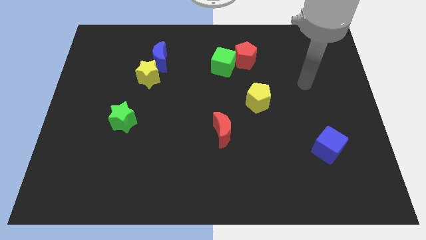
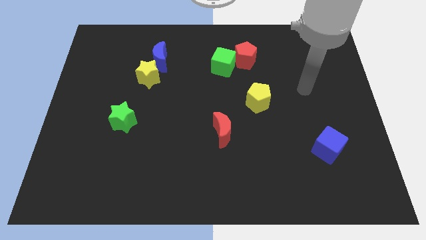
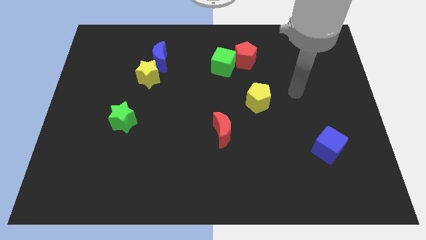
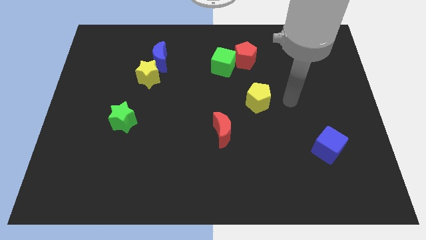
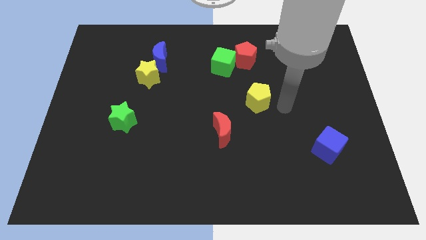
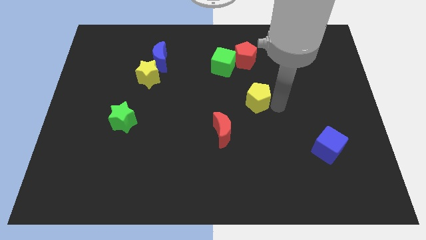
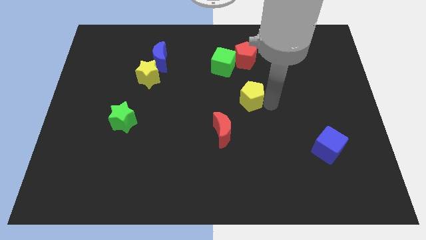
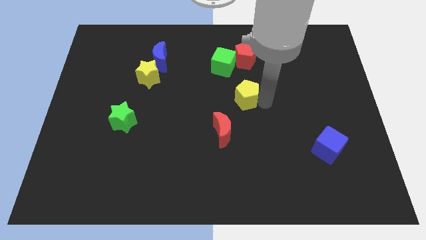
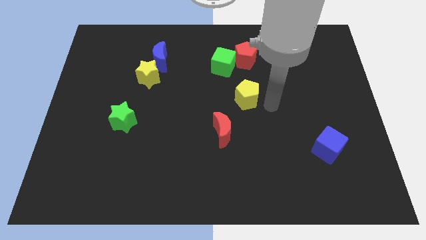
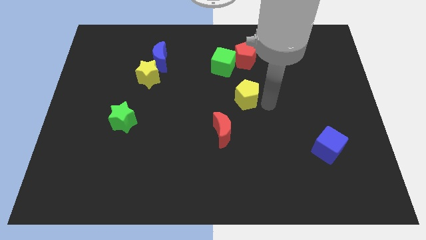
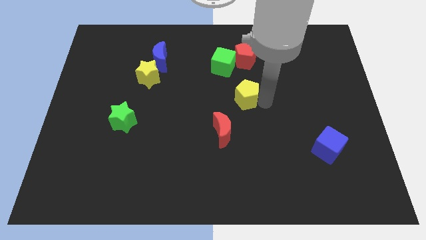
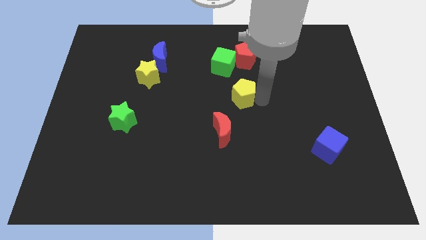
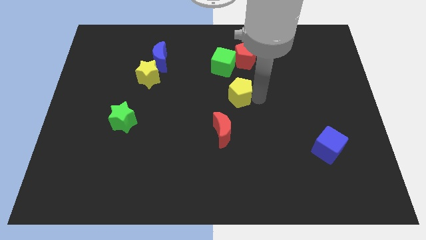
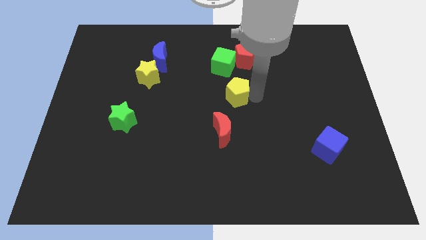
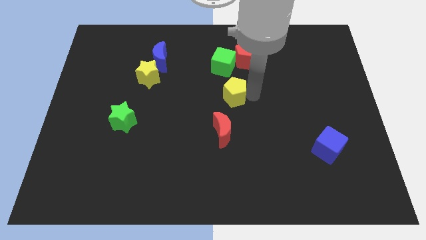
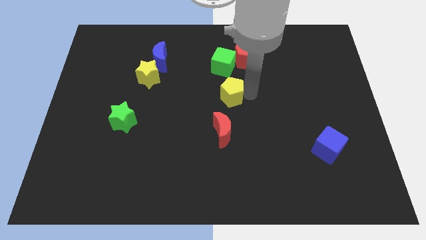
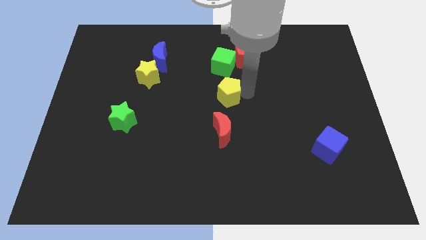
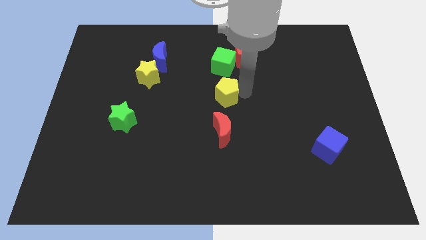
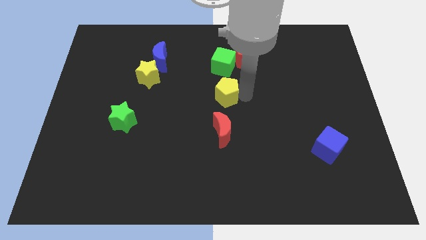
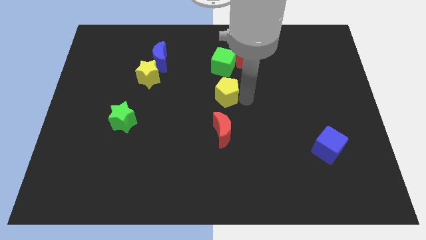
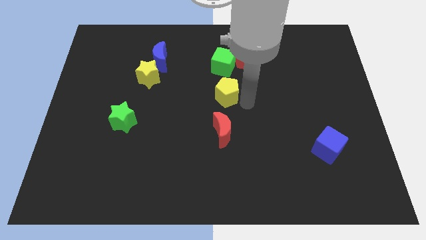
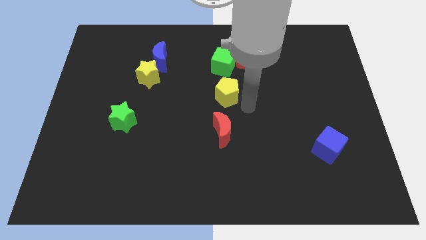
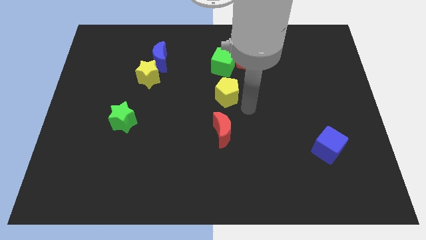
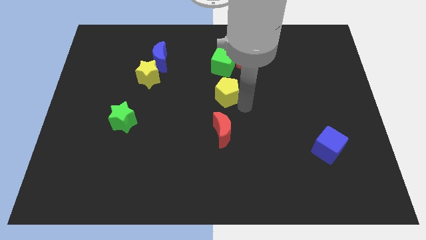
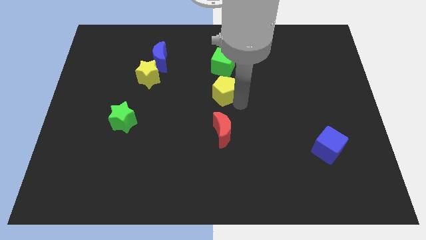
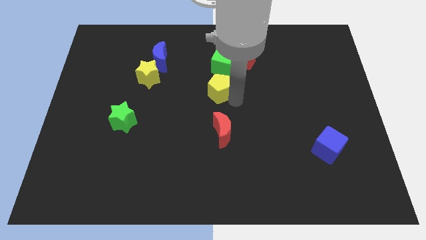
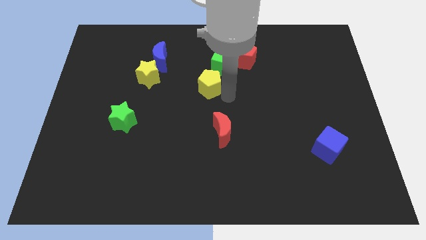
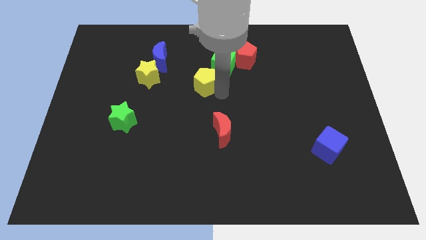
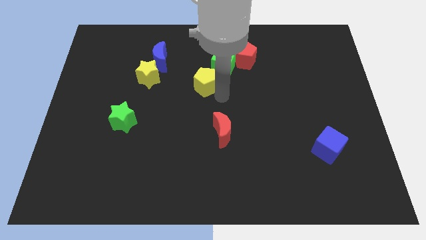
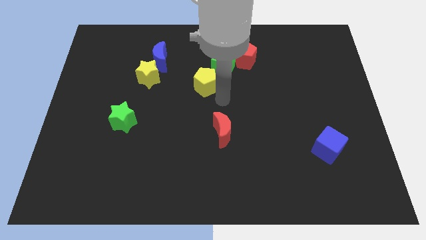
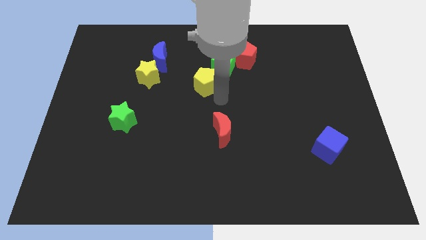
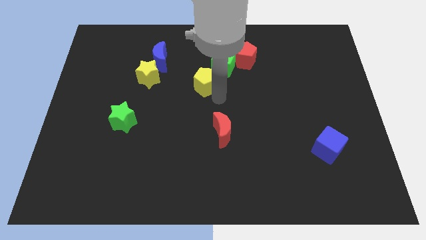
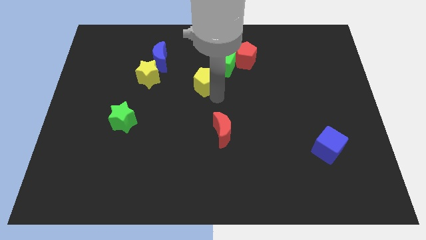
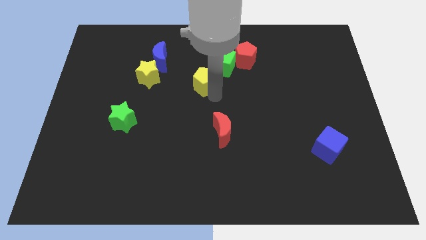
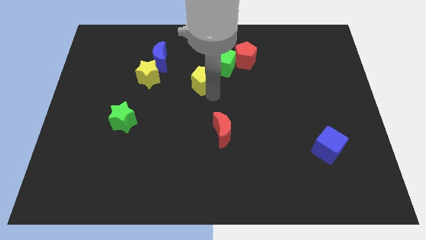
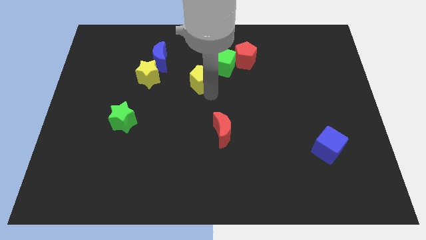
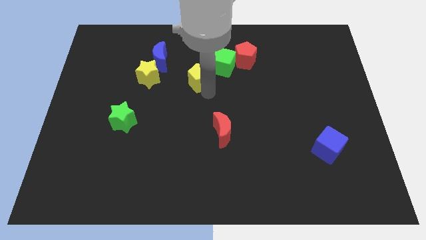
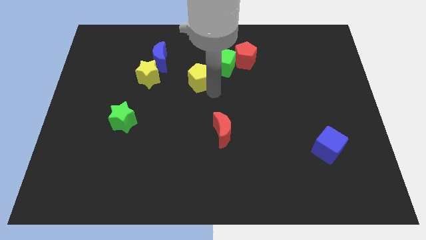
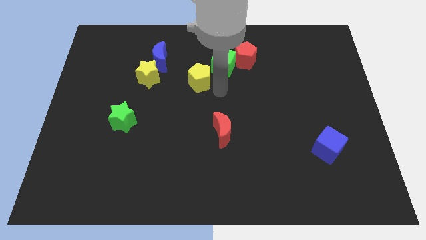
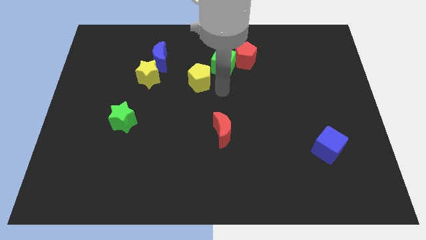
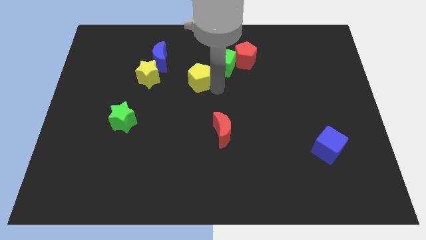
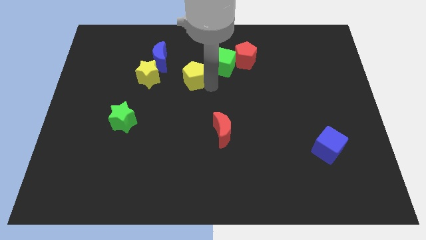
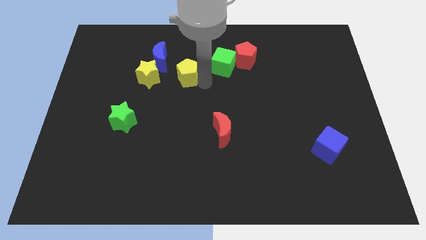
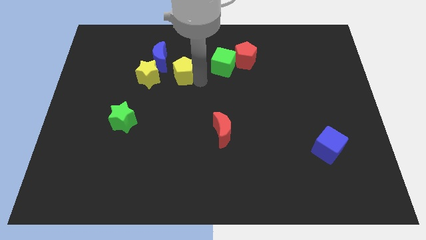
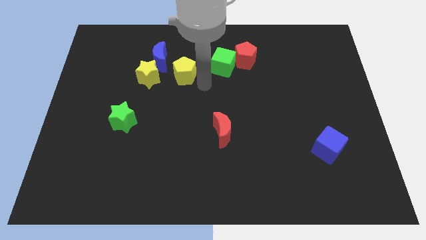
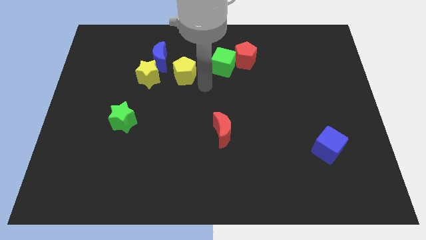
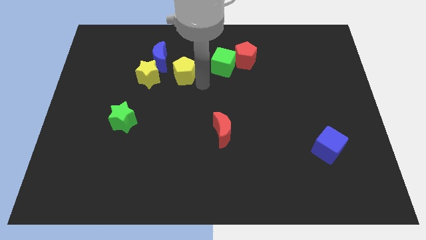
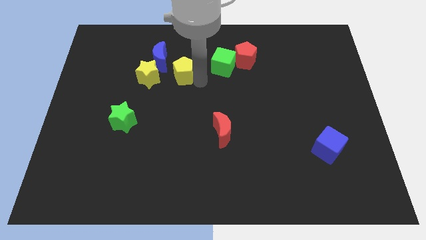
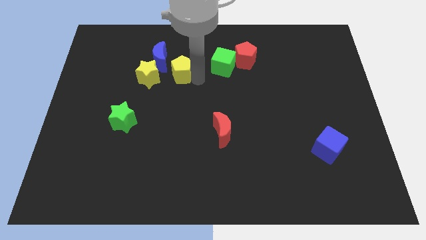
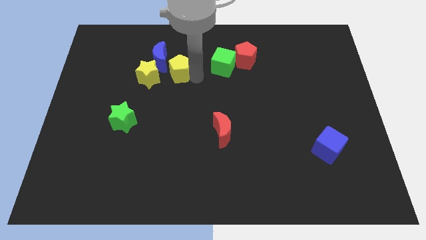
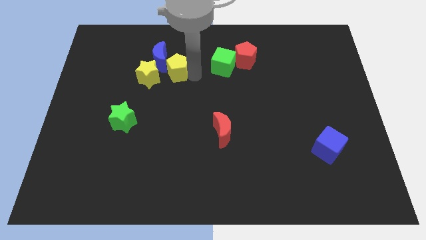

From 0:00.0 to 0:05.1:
push the yellow pentagon close to the blue moon

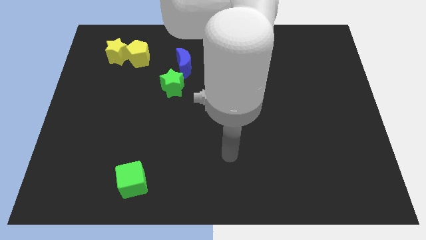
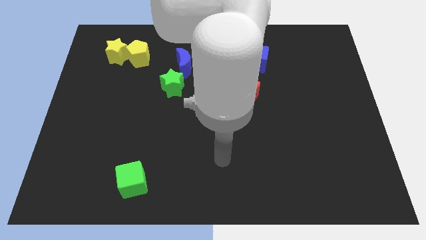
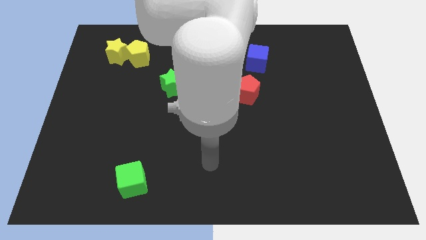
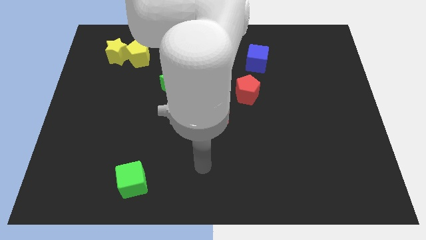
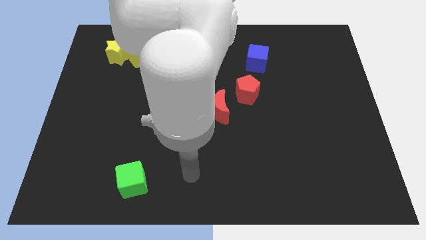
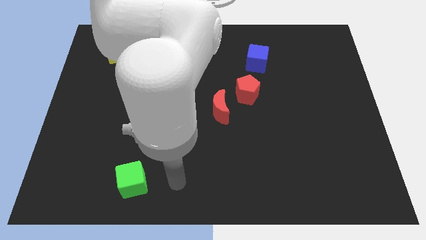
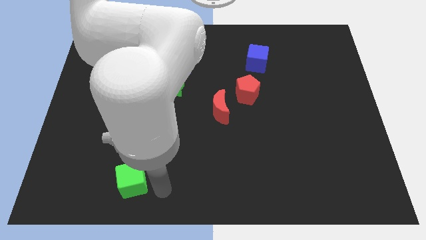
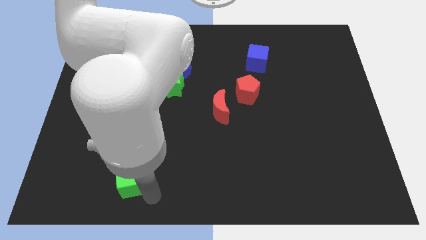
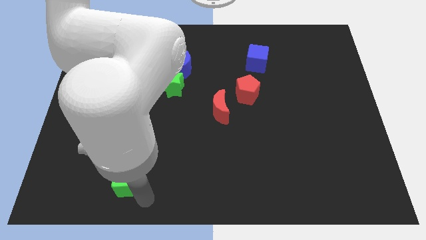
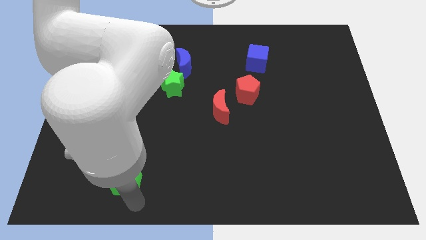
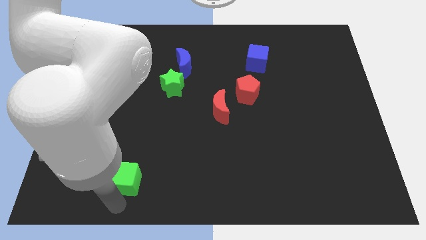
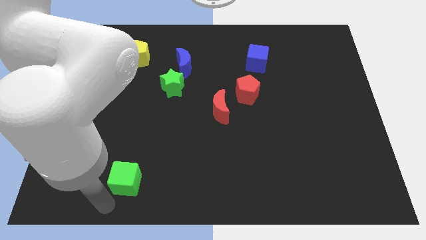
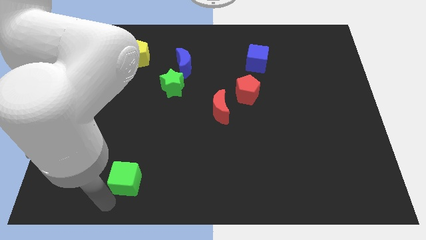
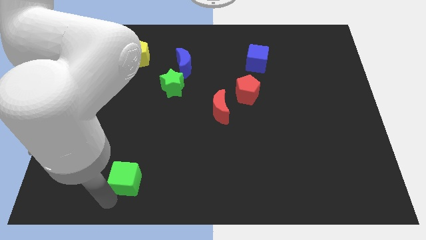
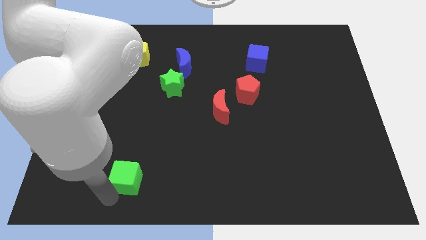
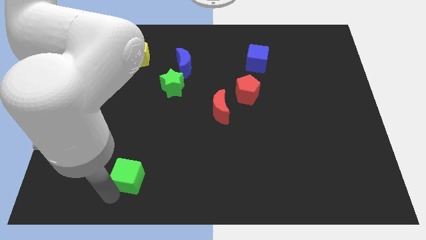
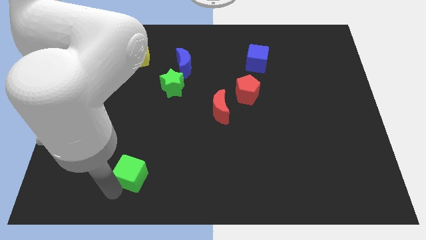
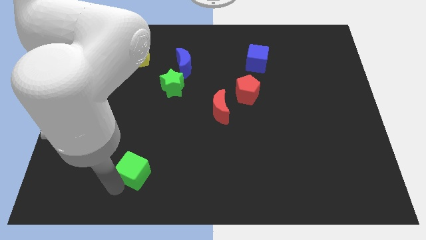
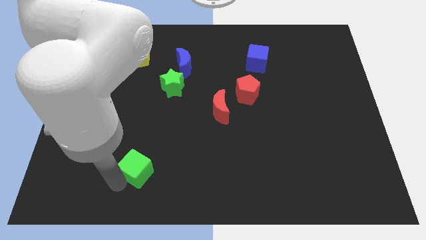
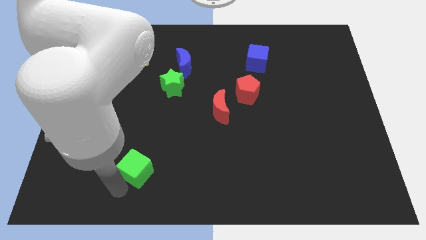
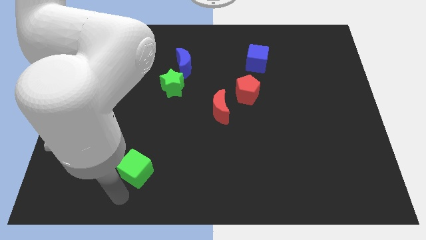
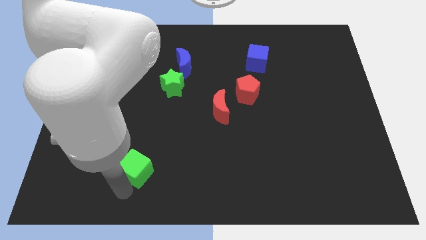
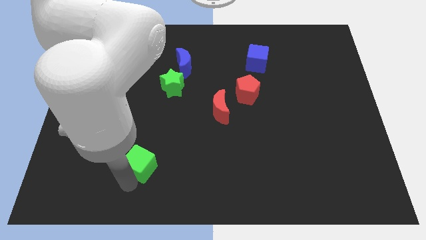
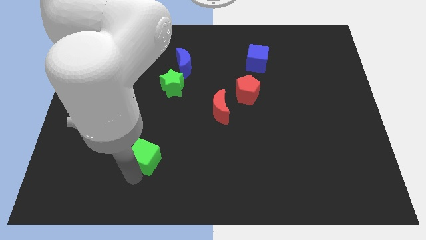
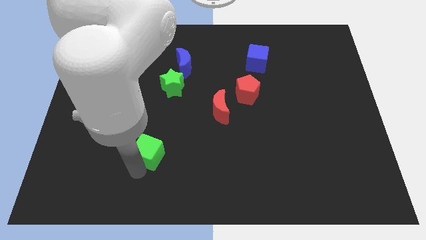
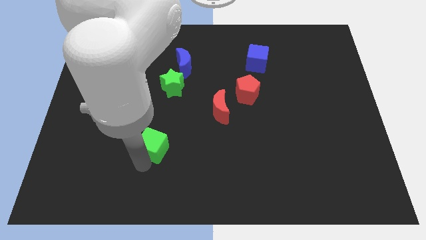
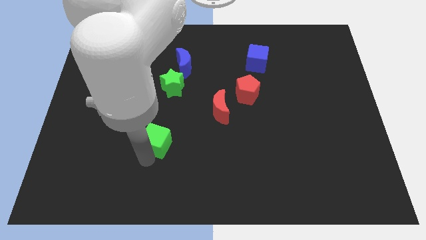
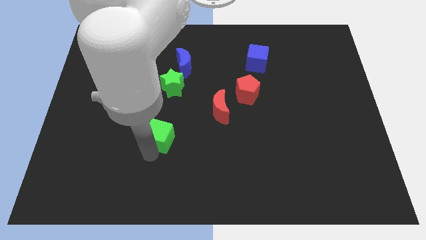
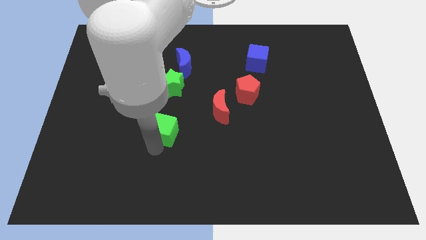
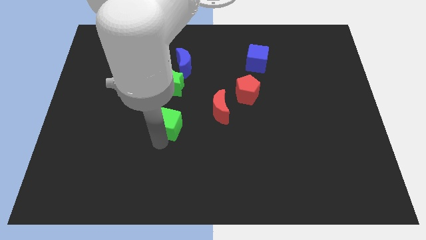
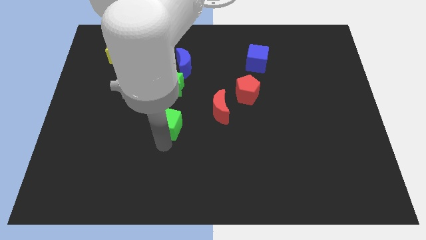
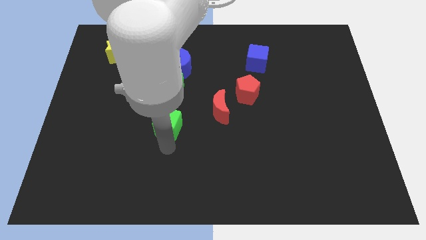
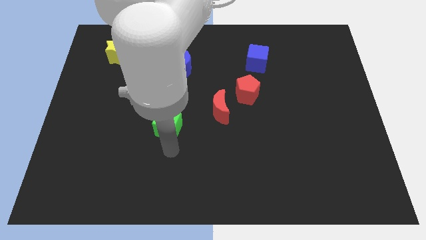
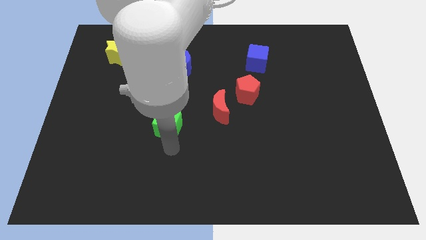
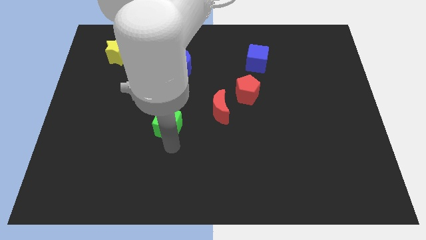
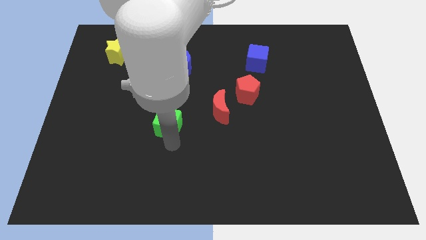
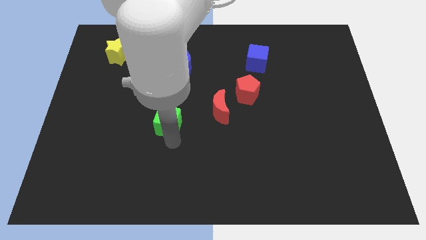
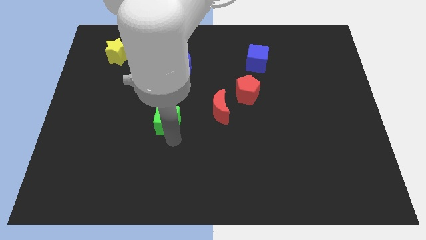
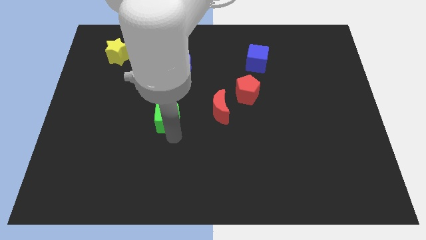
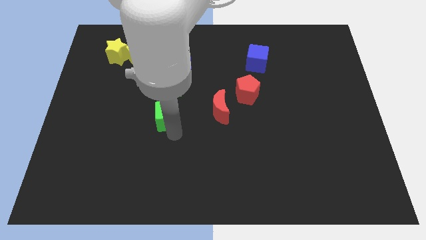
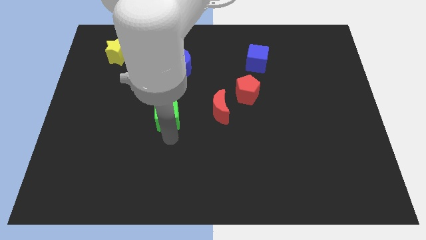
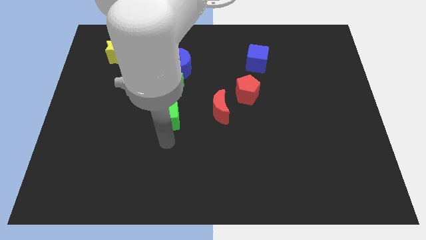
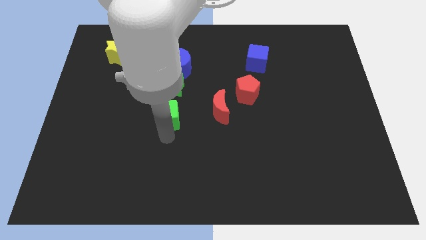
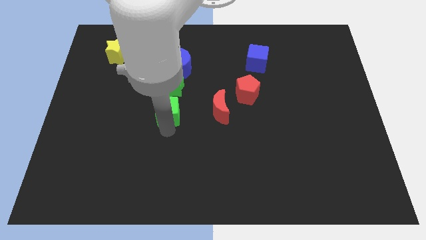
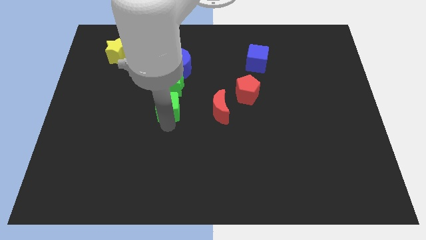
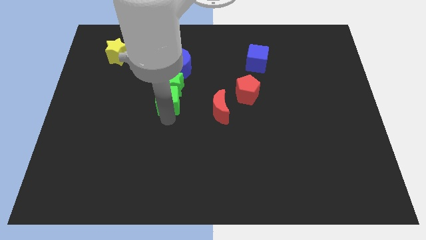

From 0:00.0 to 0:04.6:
move the green cube towards the green star
